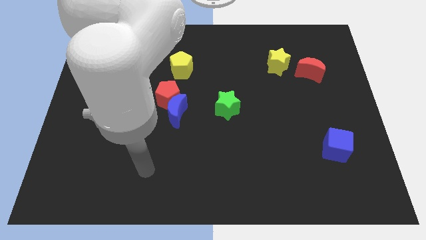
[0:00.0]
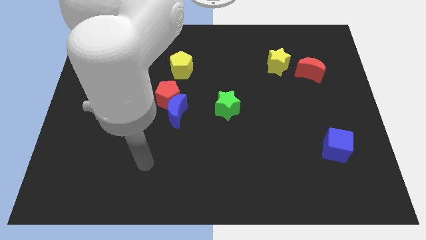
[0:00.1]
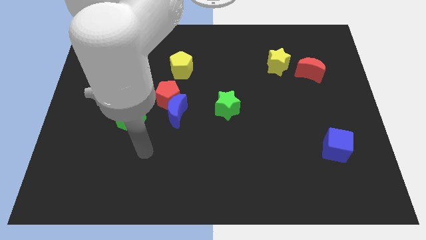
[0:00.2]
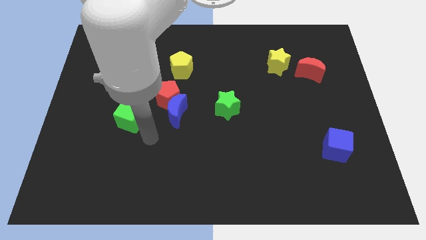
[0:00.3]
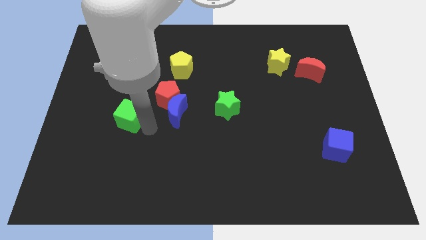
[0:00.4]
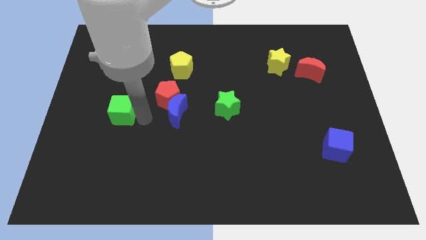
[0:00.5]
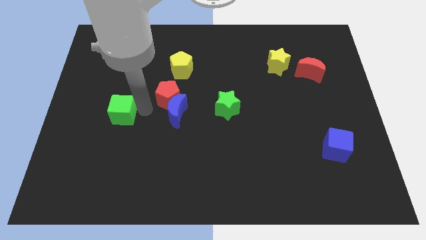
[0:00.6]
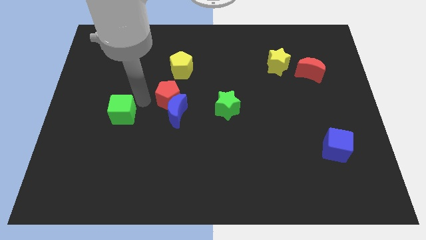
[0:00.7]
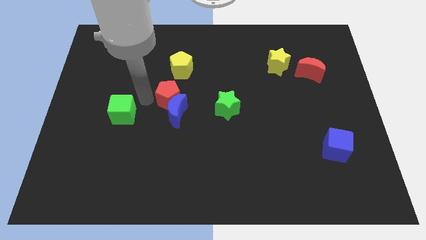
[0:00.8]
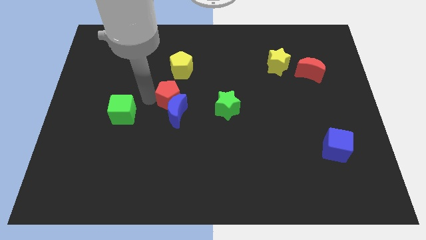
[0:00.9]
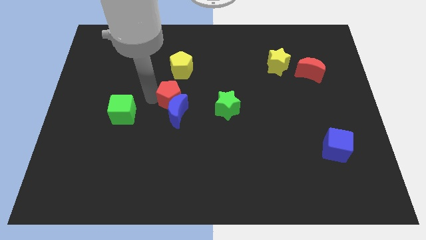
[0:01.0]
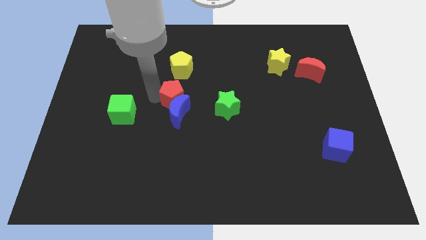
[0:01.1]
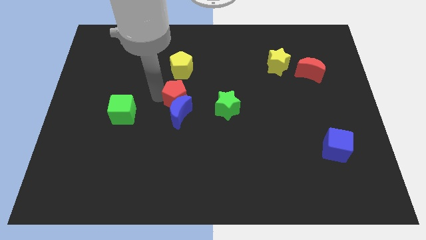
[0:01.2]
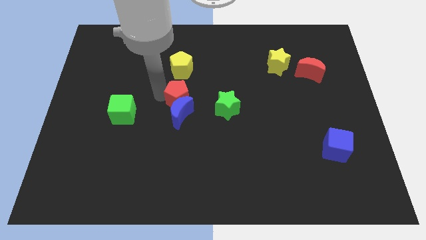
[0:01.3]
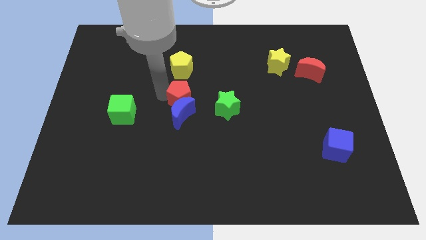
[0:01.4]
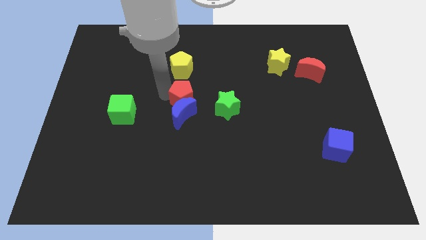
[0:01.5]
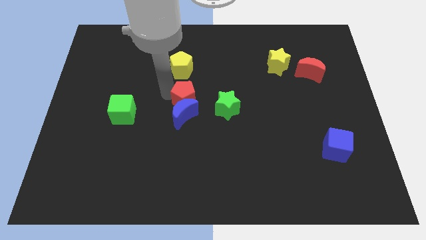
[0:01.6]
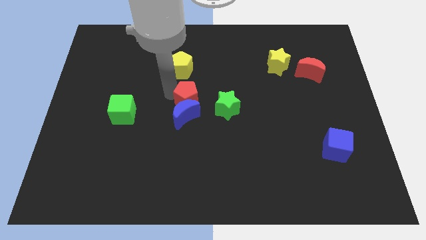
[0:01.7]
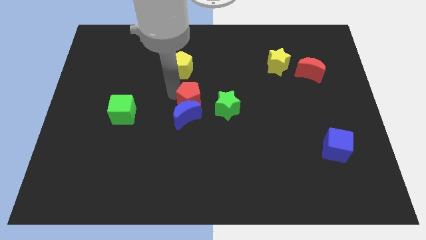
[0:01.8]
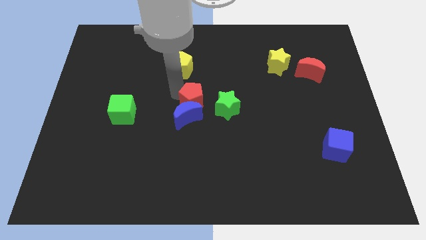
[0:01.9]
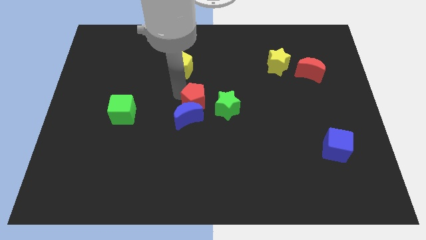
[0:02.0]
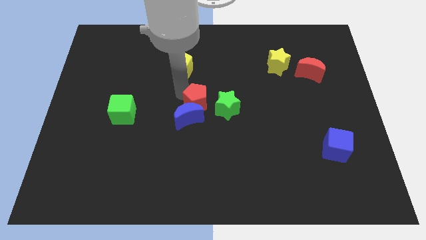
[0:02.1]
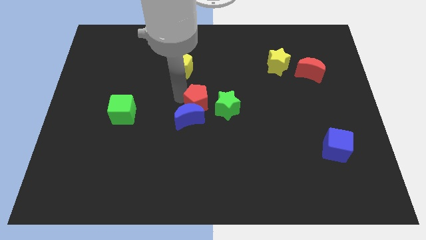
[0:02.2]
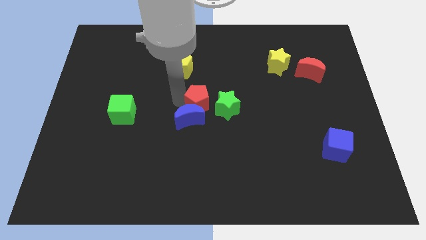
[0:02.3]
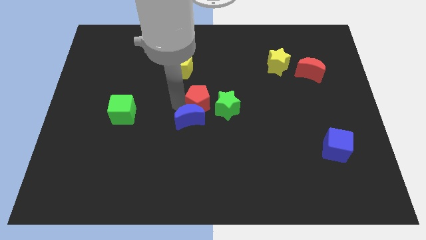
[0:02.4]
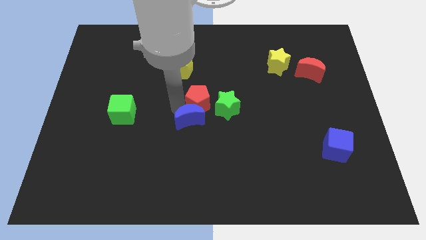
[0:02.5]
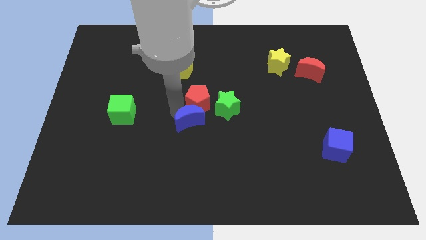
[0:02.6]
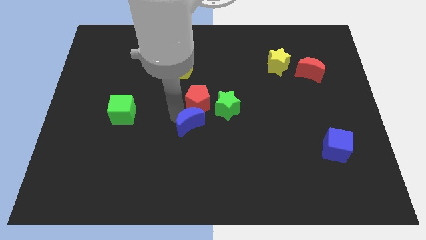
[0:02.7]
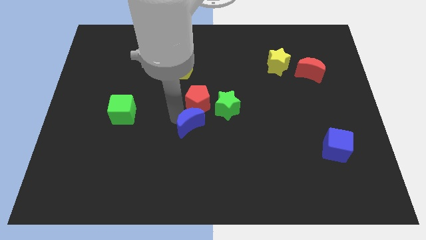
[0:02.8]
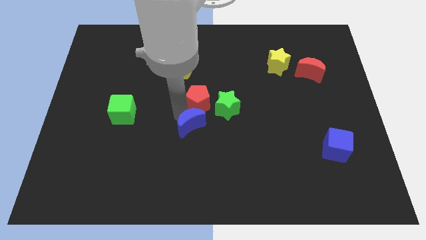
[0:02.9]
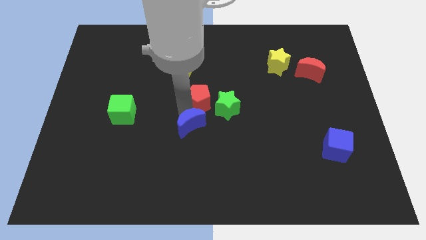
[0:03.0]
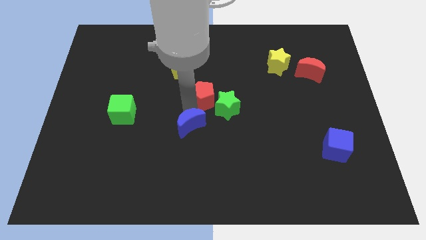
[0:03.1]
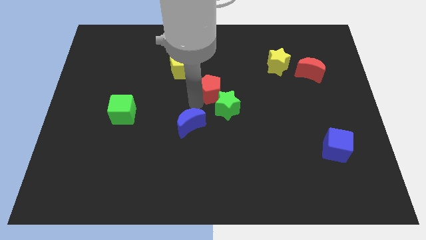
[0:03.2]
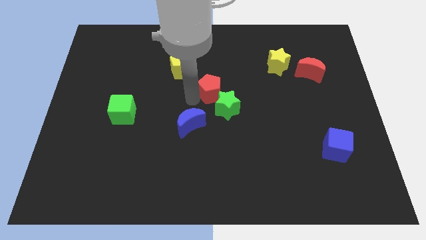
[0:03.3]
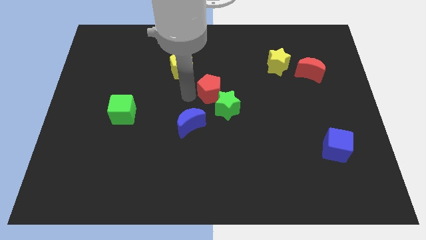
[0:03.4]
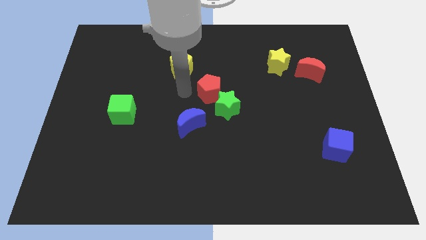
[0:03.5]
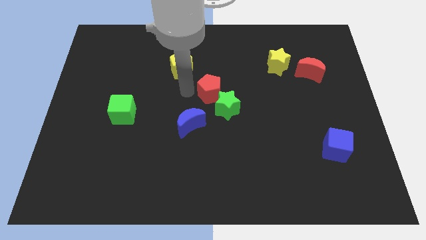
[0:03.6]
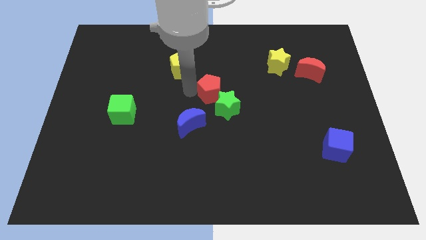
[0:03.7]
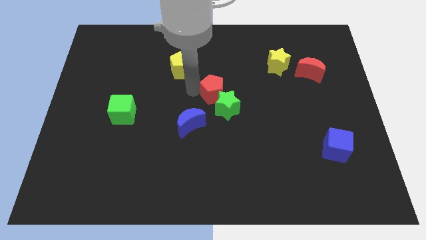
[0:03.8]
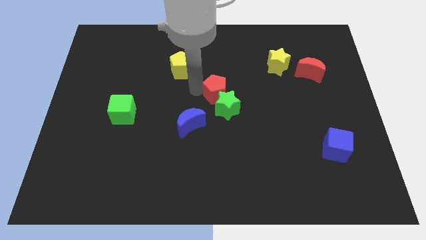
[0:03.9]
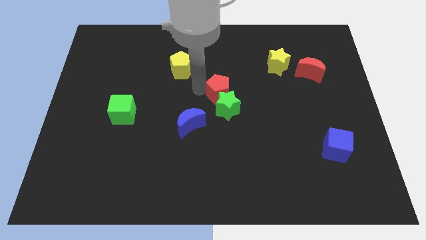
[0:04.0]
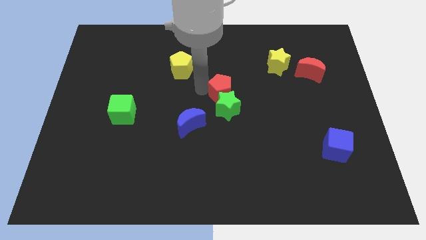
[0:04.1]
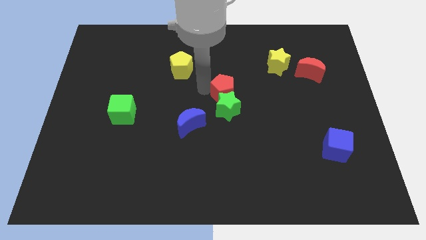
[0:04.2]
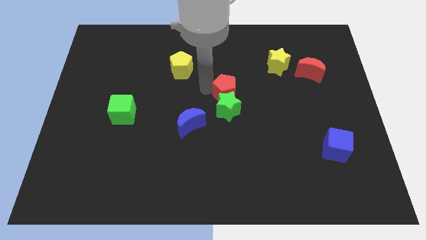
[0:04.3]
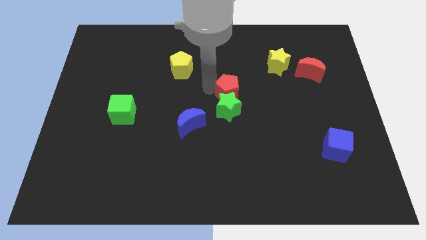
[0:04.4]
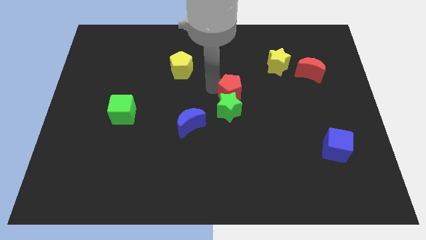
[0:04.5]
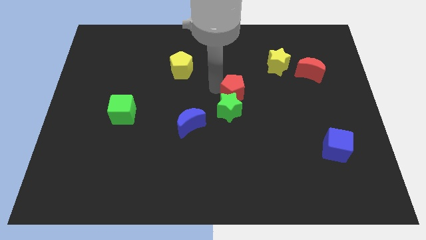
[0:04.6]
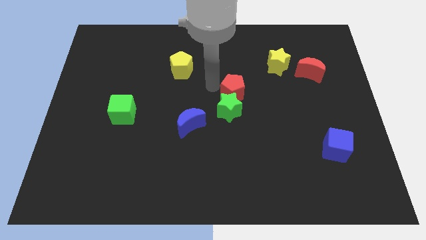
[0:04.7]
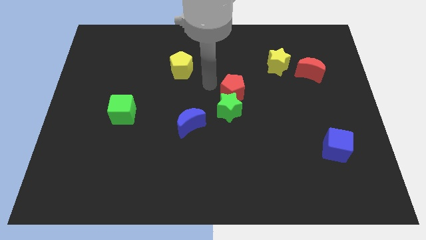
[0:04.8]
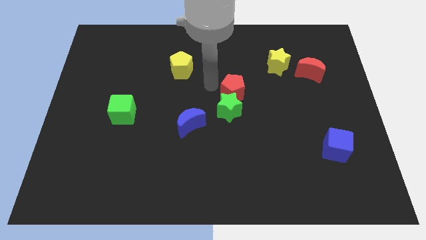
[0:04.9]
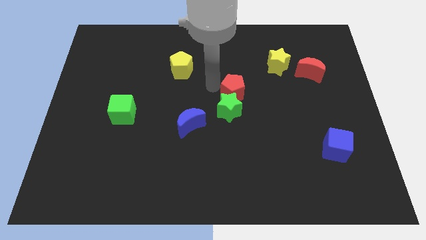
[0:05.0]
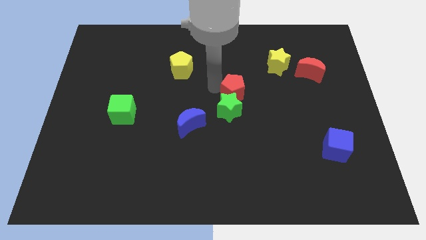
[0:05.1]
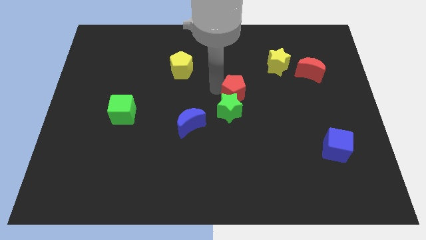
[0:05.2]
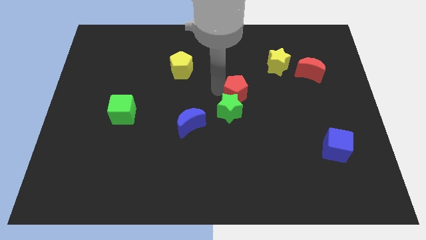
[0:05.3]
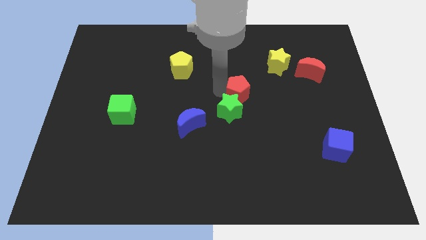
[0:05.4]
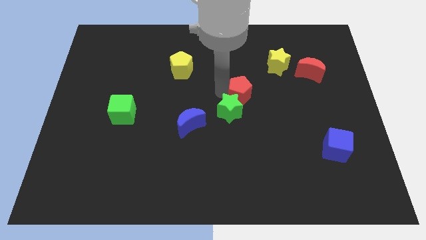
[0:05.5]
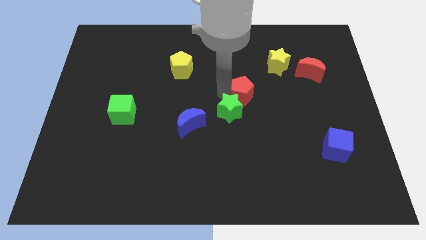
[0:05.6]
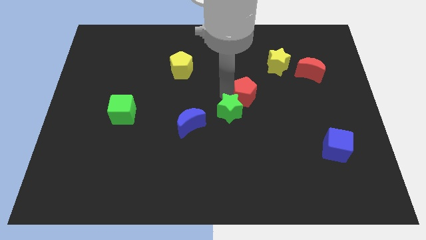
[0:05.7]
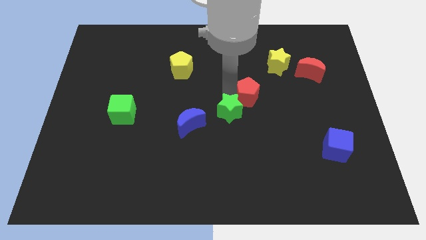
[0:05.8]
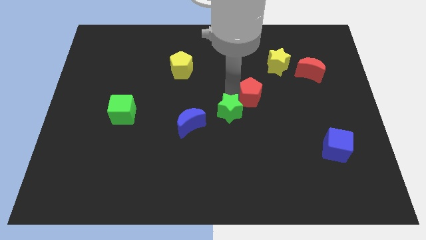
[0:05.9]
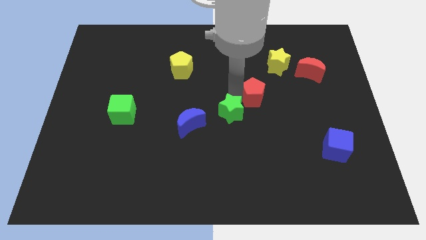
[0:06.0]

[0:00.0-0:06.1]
move the red pentagon to the right

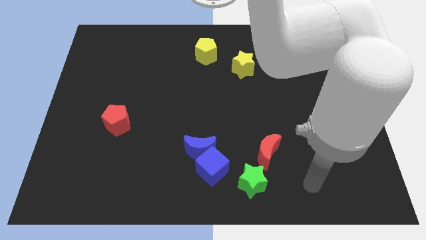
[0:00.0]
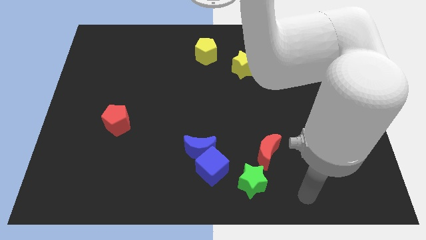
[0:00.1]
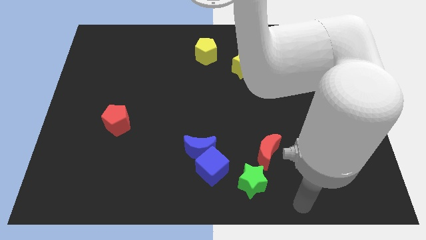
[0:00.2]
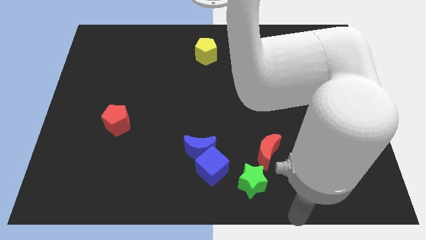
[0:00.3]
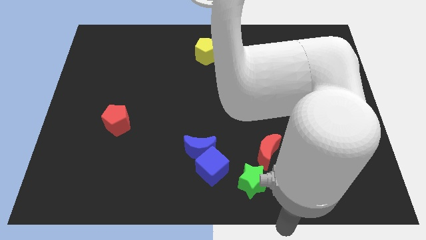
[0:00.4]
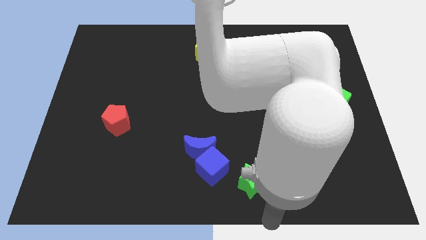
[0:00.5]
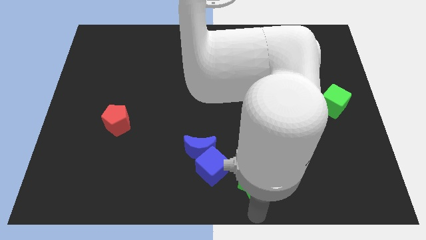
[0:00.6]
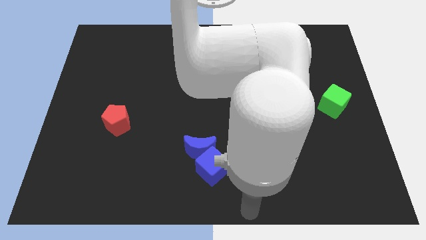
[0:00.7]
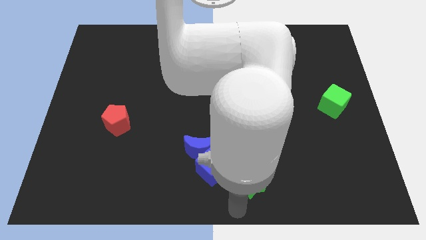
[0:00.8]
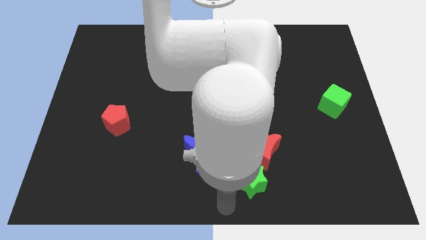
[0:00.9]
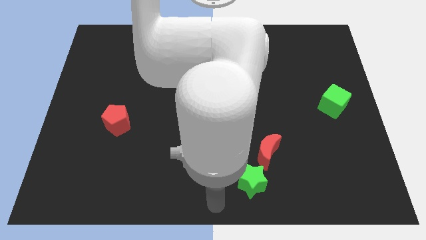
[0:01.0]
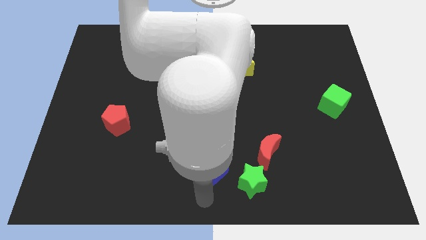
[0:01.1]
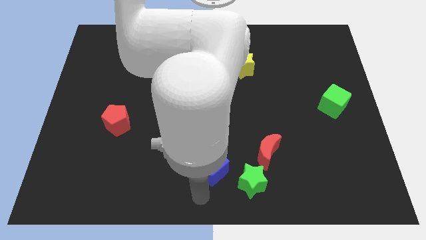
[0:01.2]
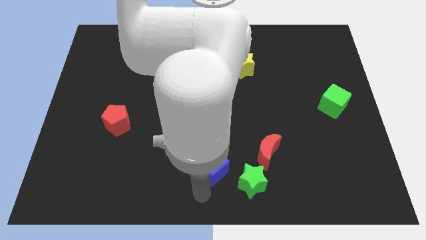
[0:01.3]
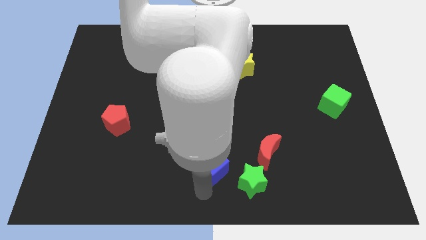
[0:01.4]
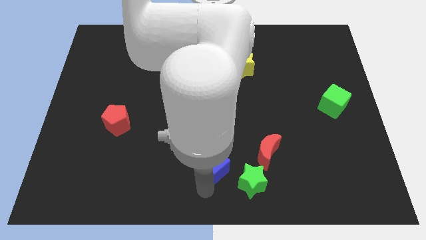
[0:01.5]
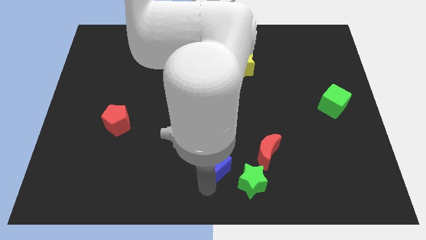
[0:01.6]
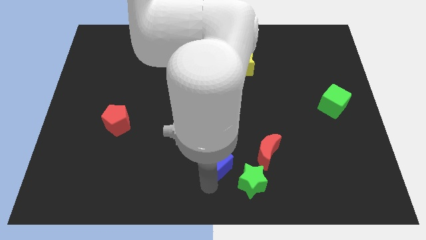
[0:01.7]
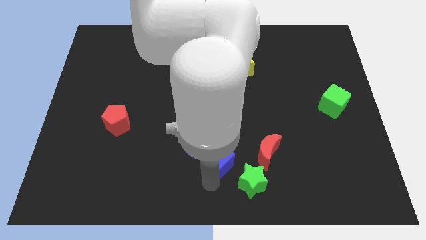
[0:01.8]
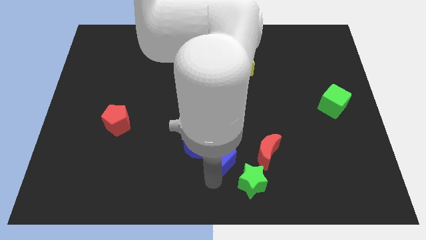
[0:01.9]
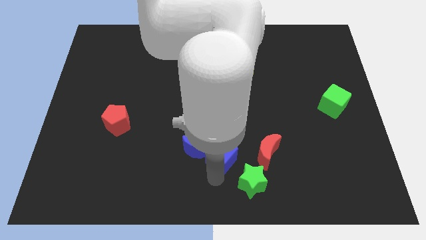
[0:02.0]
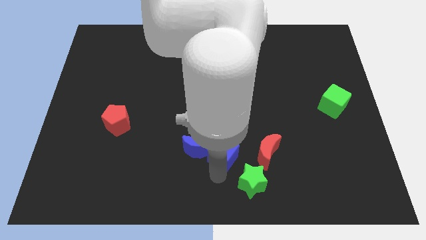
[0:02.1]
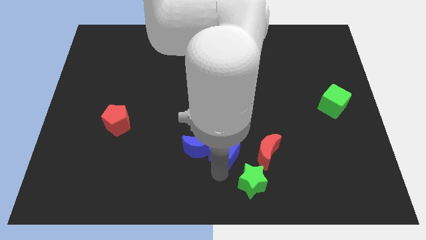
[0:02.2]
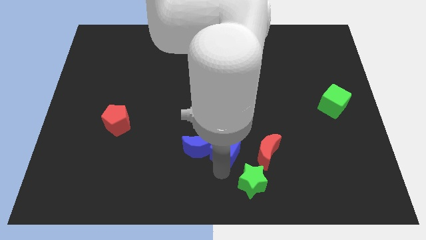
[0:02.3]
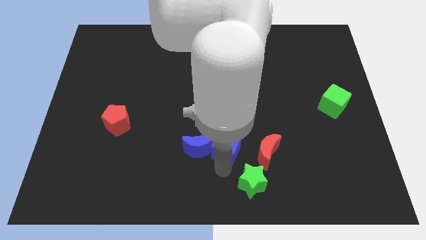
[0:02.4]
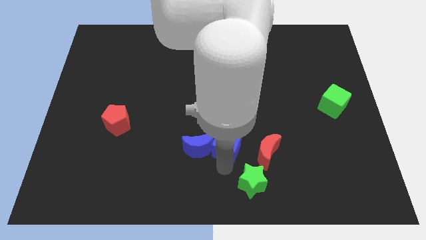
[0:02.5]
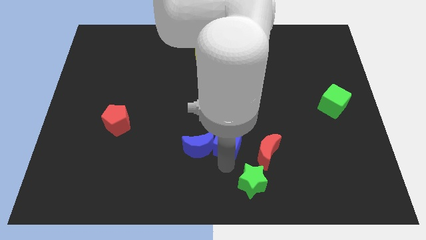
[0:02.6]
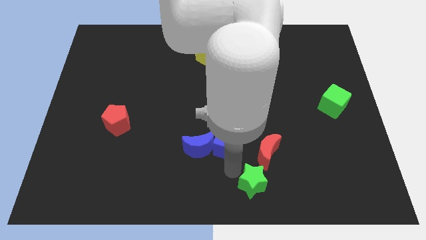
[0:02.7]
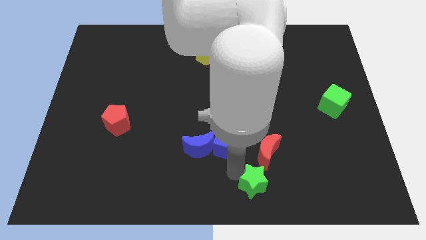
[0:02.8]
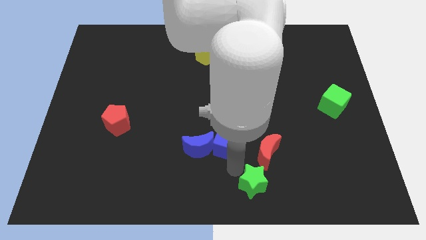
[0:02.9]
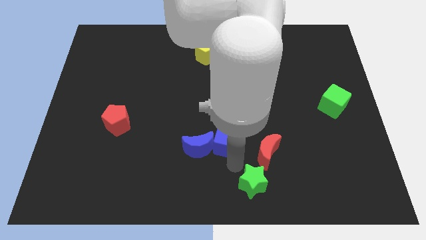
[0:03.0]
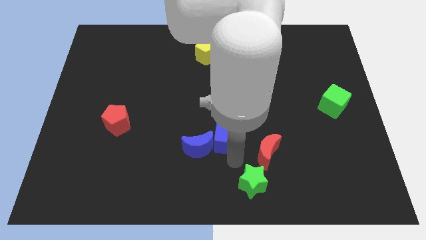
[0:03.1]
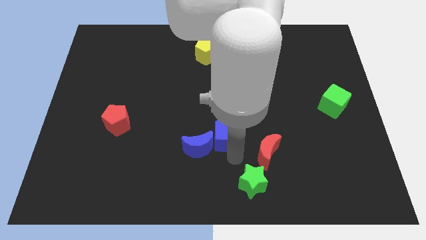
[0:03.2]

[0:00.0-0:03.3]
slightly move the blue cube upwards
